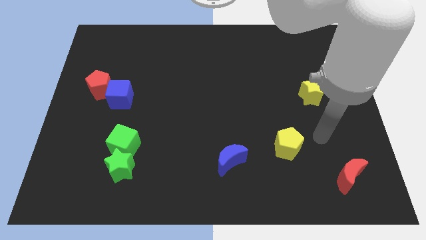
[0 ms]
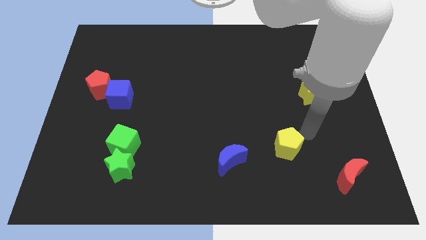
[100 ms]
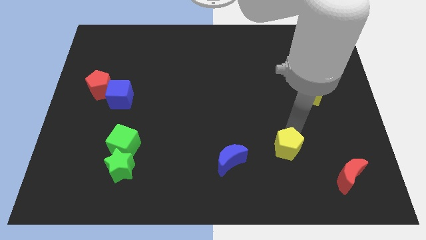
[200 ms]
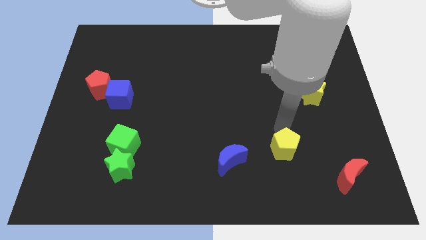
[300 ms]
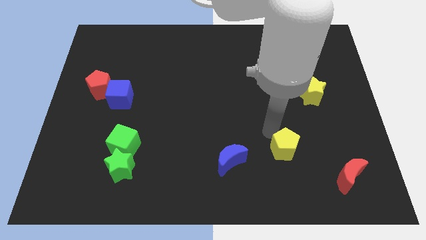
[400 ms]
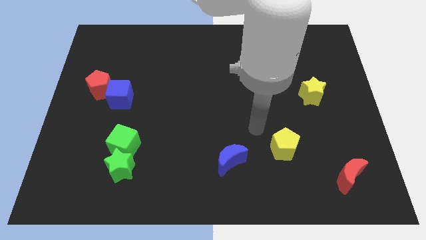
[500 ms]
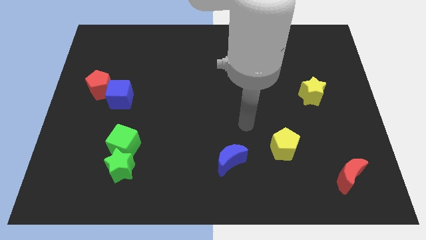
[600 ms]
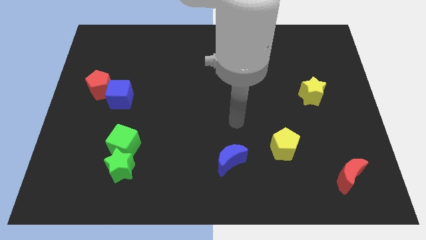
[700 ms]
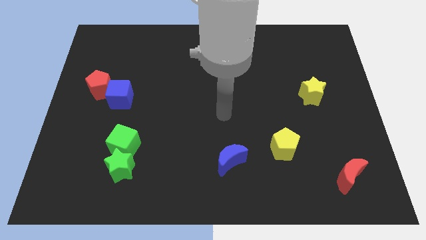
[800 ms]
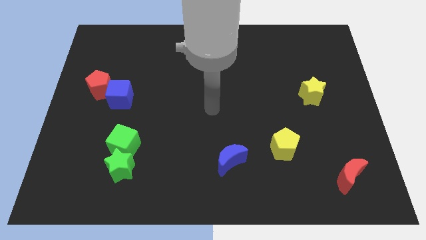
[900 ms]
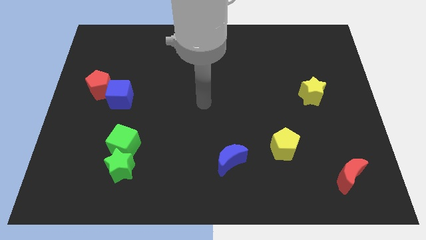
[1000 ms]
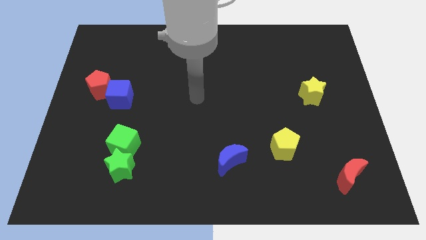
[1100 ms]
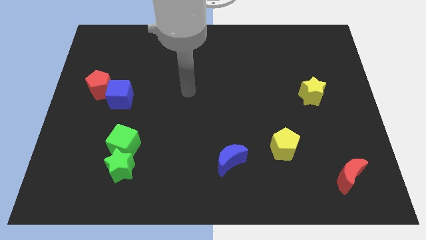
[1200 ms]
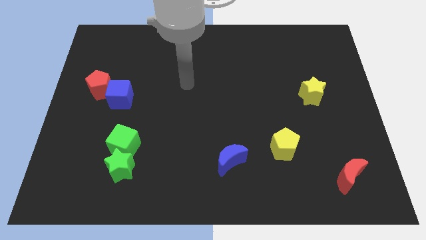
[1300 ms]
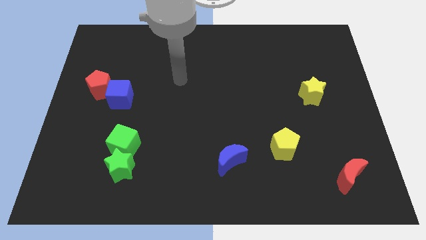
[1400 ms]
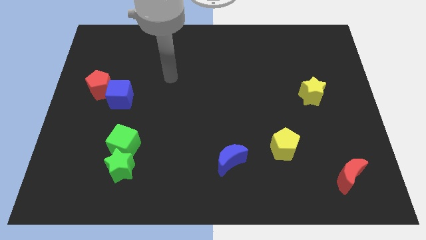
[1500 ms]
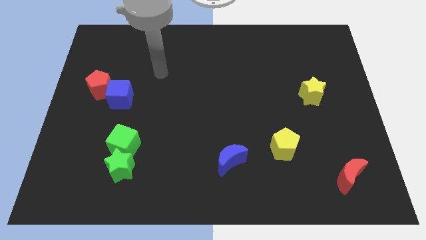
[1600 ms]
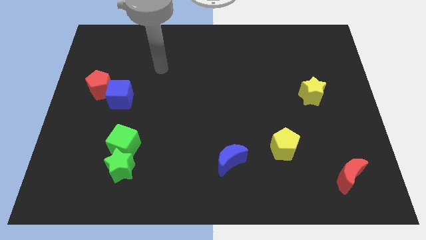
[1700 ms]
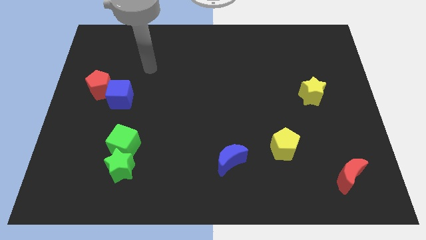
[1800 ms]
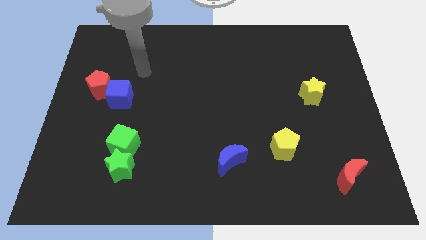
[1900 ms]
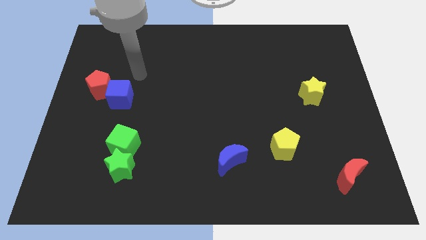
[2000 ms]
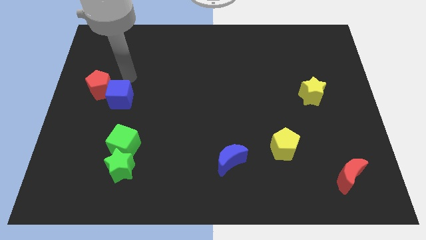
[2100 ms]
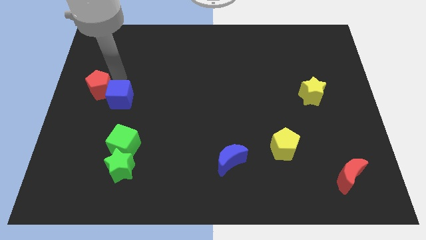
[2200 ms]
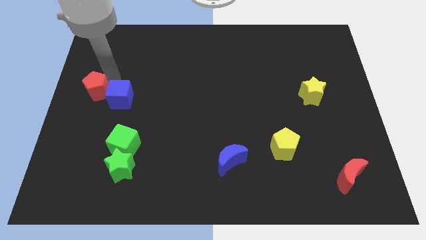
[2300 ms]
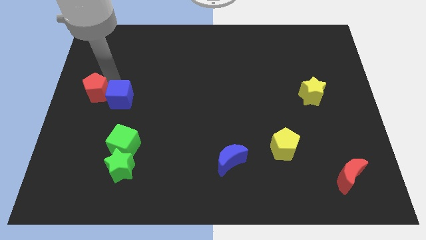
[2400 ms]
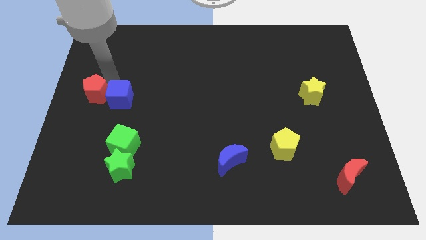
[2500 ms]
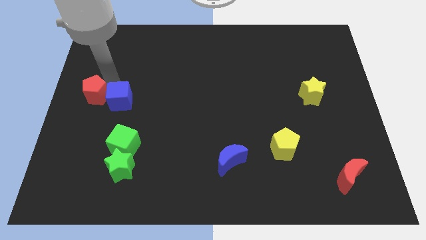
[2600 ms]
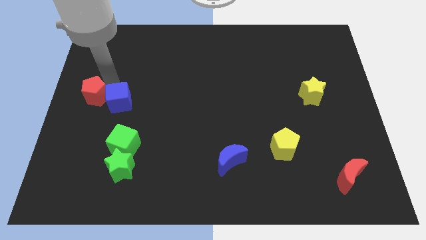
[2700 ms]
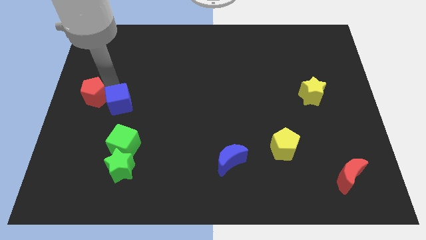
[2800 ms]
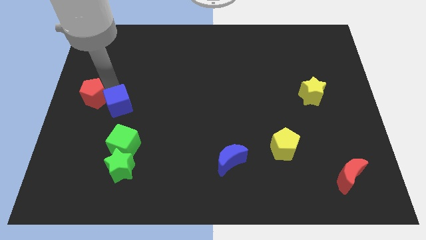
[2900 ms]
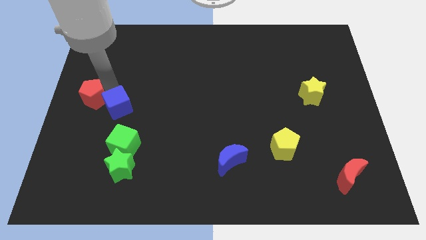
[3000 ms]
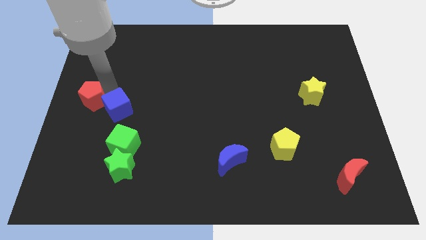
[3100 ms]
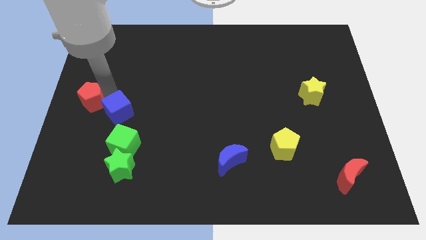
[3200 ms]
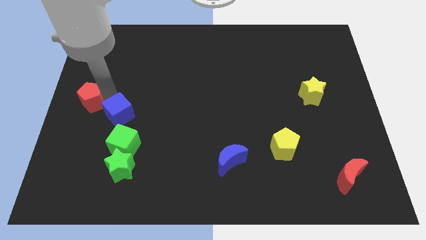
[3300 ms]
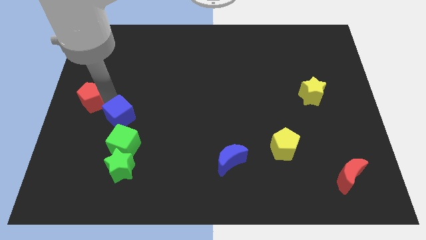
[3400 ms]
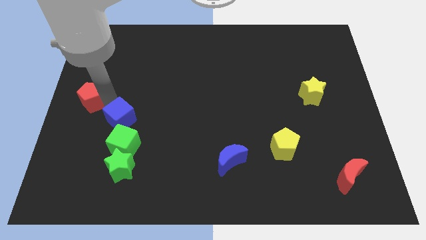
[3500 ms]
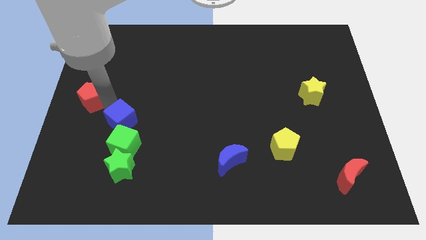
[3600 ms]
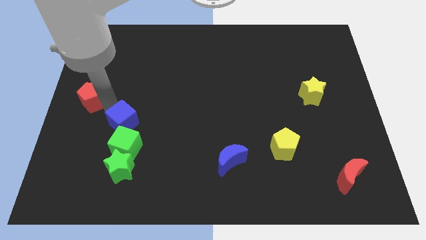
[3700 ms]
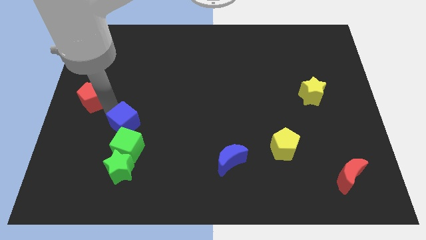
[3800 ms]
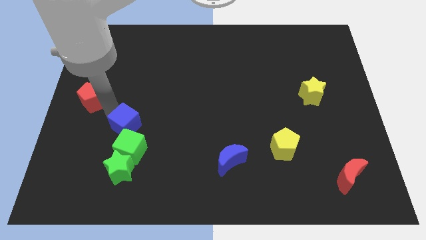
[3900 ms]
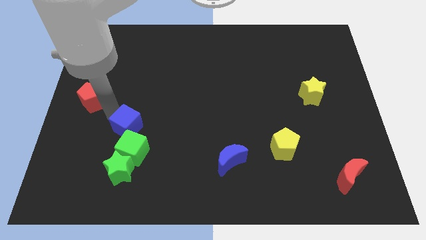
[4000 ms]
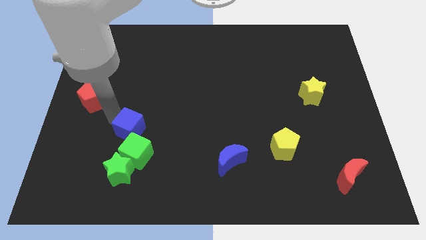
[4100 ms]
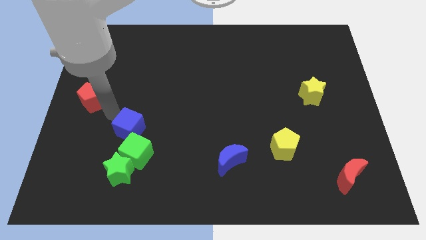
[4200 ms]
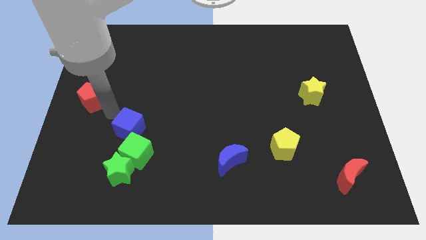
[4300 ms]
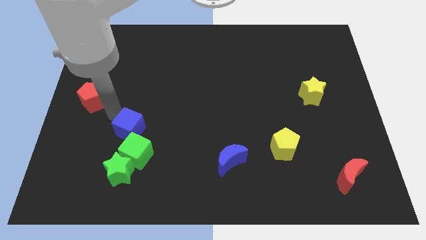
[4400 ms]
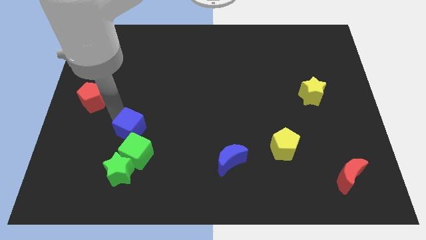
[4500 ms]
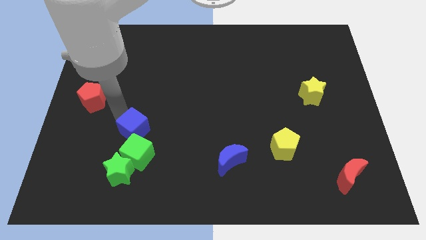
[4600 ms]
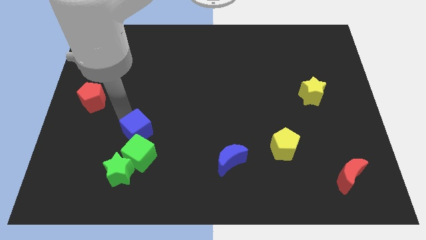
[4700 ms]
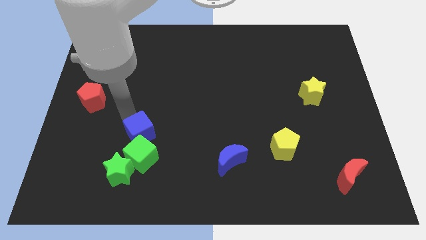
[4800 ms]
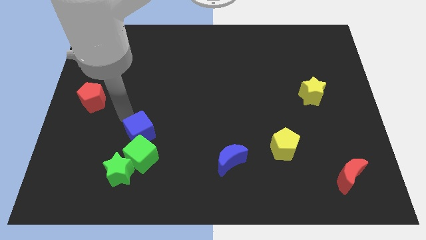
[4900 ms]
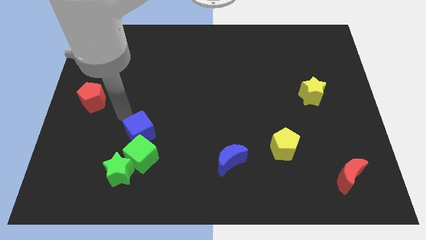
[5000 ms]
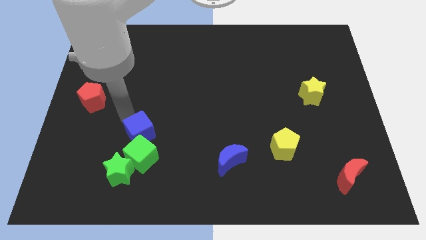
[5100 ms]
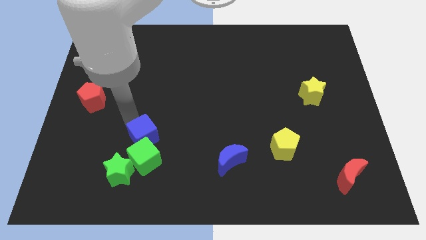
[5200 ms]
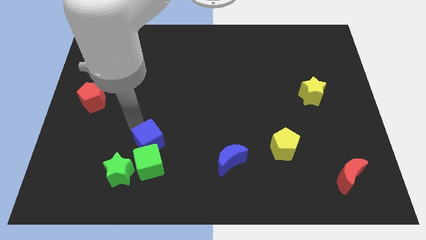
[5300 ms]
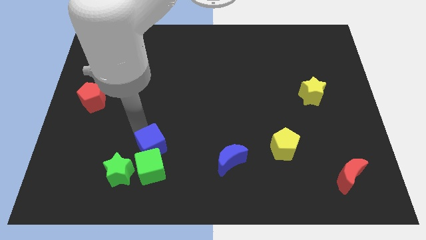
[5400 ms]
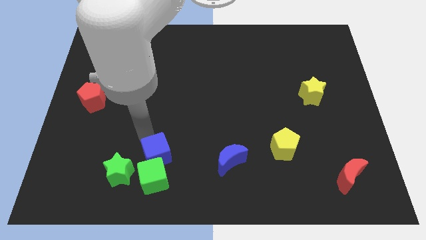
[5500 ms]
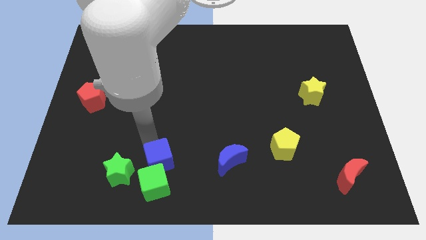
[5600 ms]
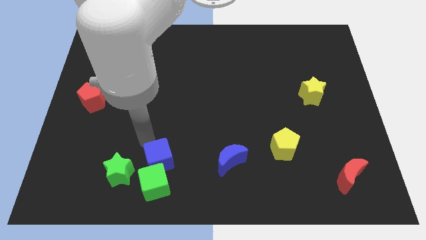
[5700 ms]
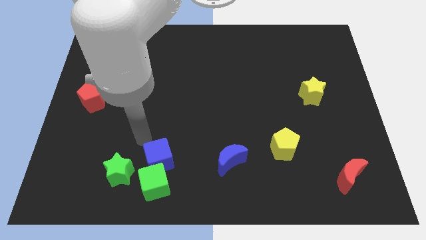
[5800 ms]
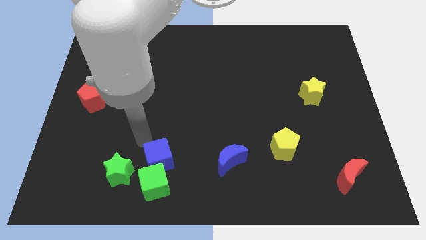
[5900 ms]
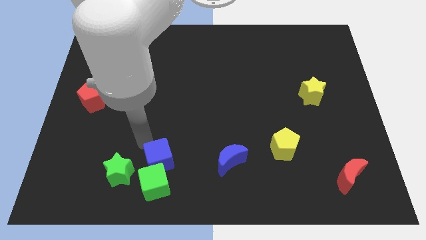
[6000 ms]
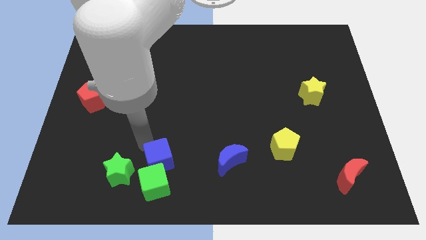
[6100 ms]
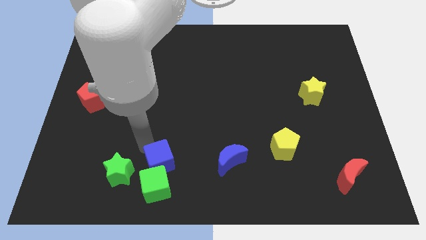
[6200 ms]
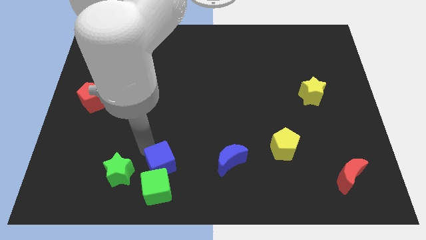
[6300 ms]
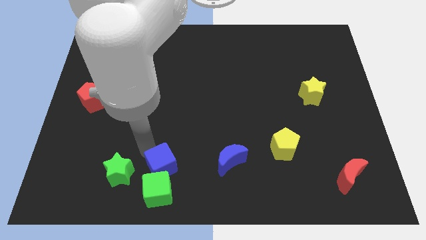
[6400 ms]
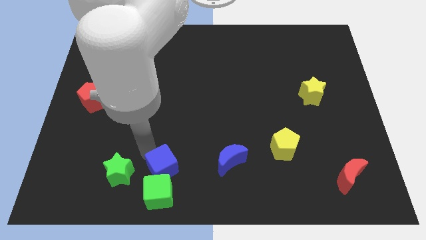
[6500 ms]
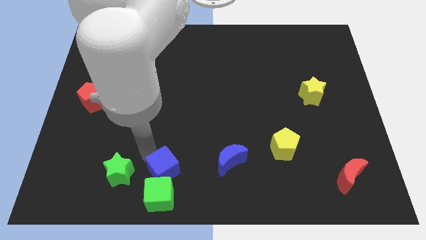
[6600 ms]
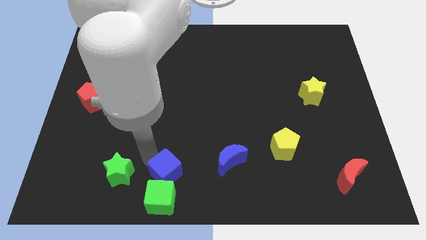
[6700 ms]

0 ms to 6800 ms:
push the blue cube to the bottom side
